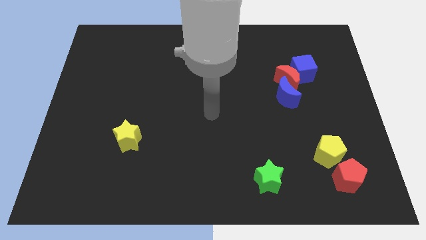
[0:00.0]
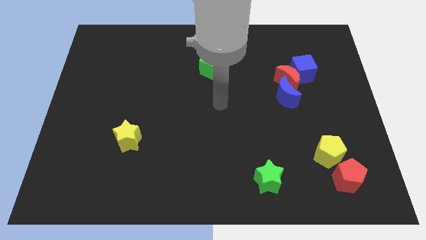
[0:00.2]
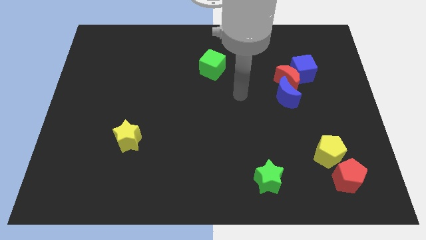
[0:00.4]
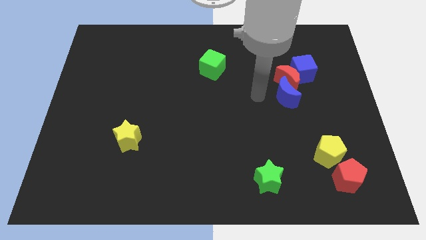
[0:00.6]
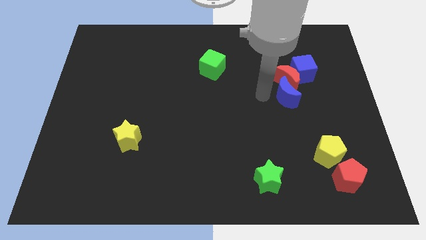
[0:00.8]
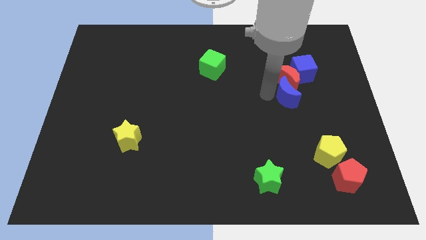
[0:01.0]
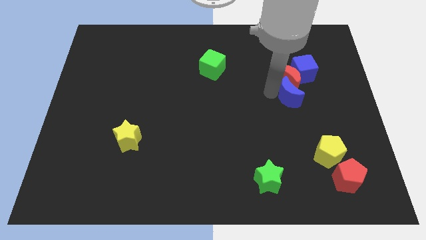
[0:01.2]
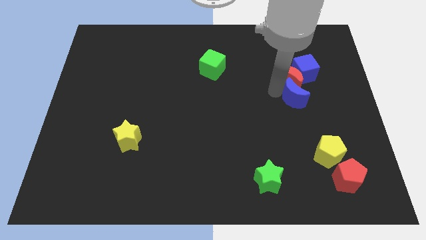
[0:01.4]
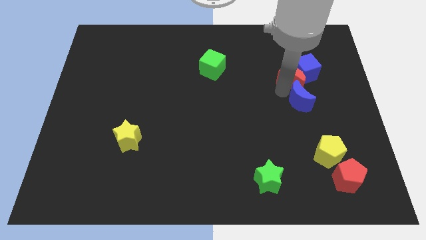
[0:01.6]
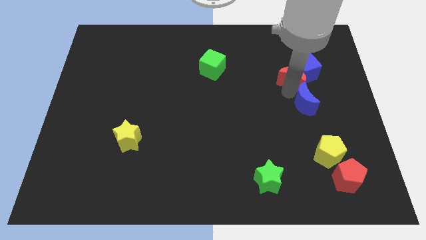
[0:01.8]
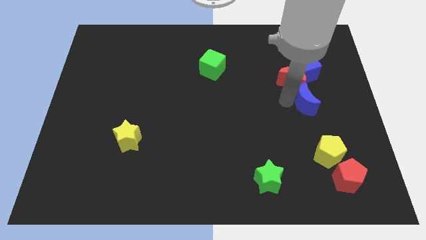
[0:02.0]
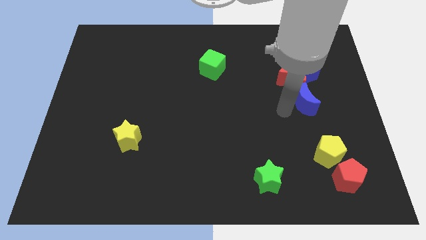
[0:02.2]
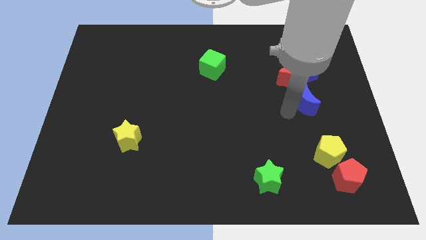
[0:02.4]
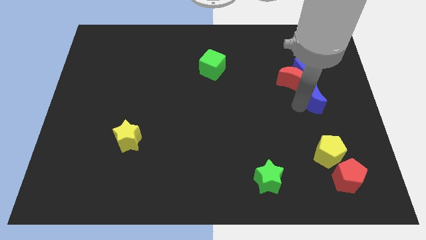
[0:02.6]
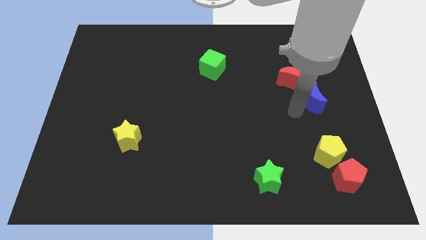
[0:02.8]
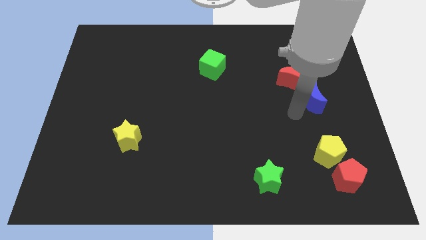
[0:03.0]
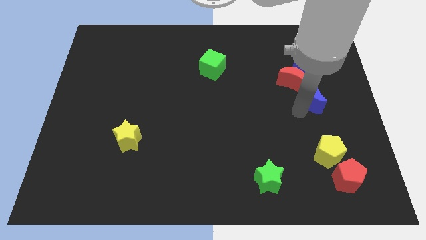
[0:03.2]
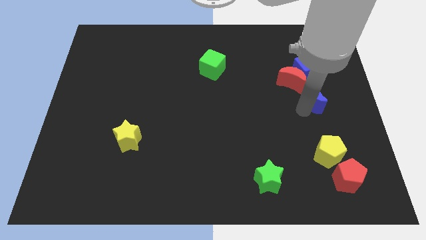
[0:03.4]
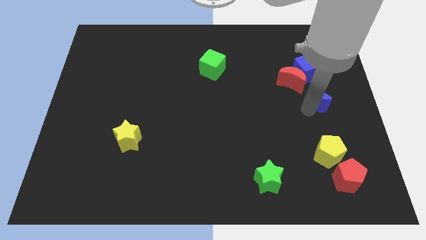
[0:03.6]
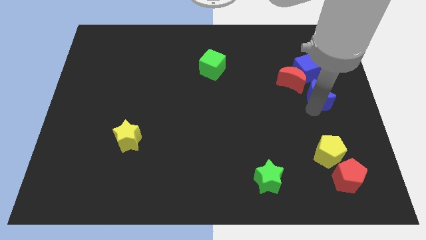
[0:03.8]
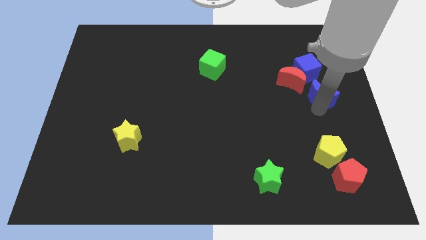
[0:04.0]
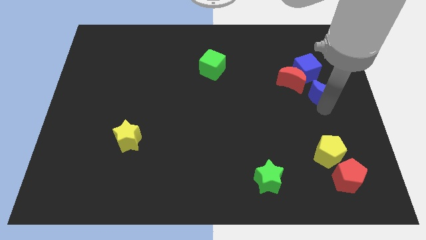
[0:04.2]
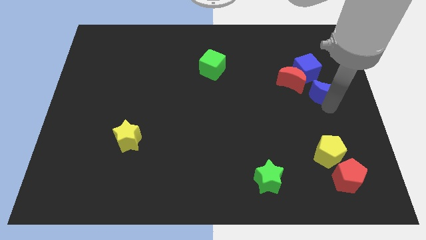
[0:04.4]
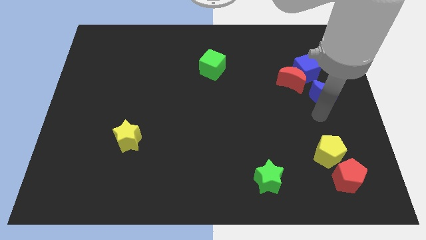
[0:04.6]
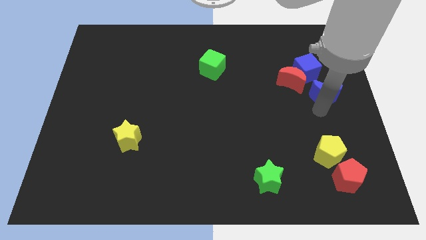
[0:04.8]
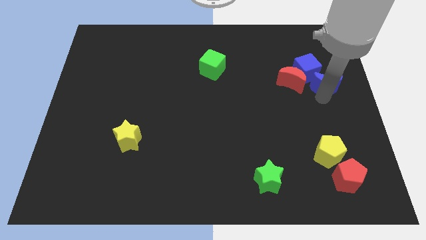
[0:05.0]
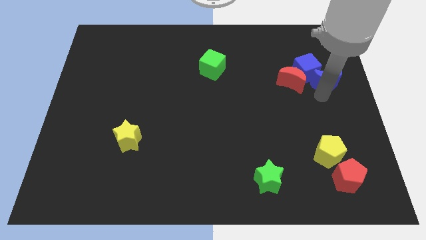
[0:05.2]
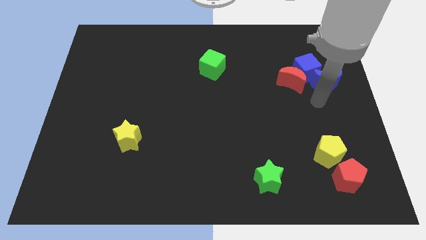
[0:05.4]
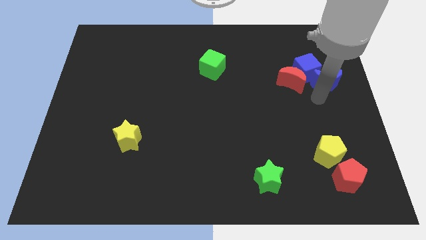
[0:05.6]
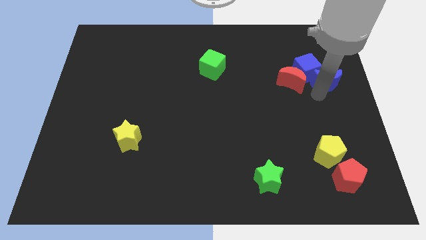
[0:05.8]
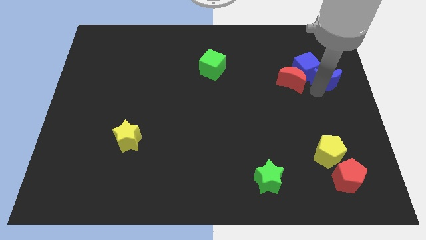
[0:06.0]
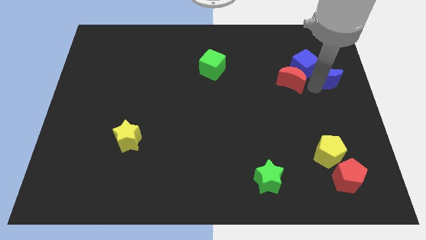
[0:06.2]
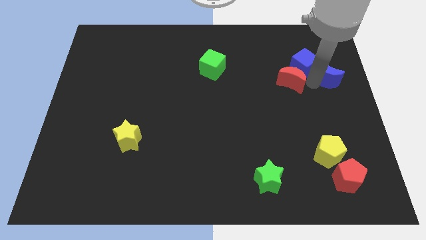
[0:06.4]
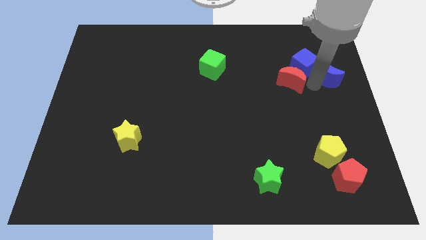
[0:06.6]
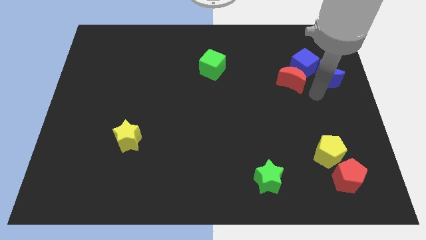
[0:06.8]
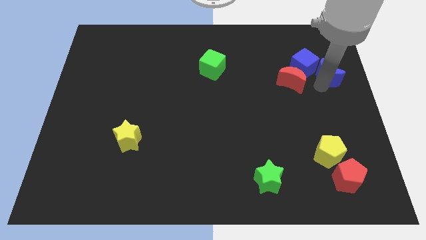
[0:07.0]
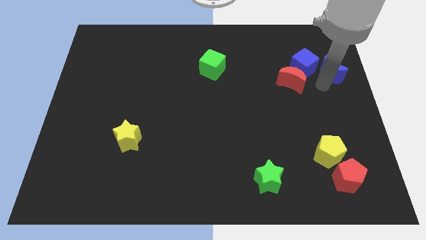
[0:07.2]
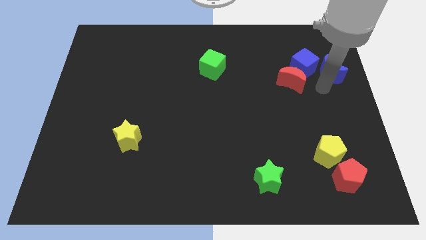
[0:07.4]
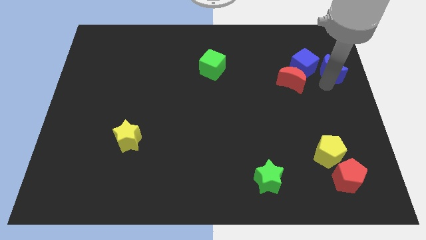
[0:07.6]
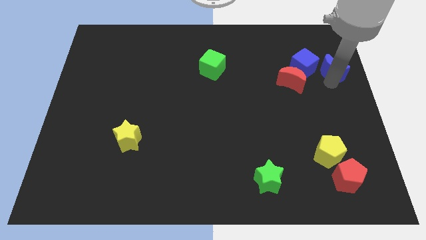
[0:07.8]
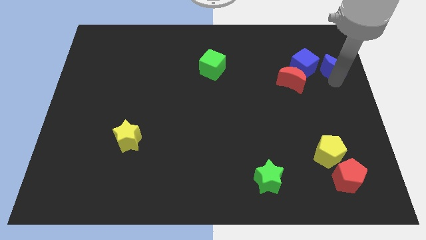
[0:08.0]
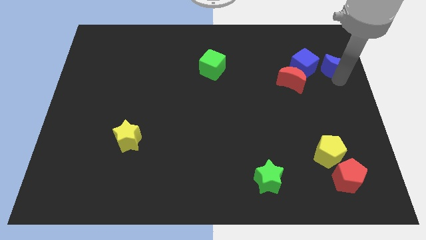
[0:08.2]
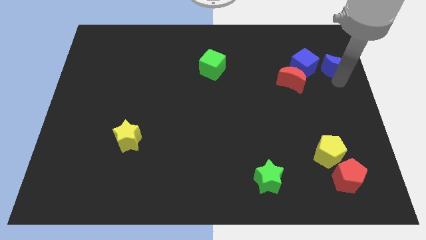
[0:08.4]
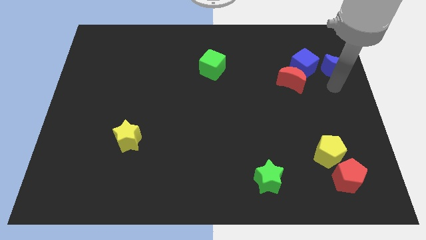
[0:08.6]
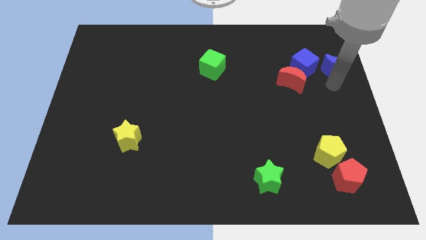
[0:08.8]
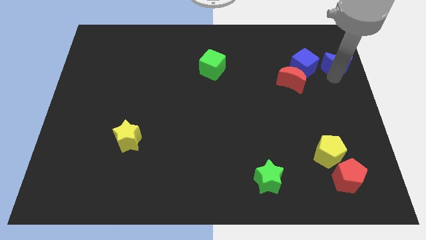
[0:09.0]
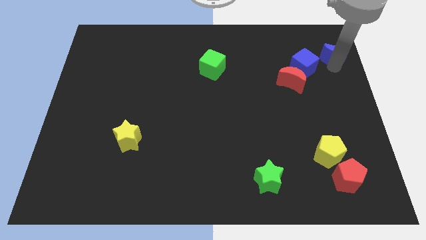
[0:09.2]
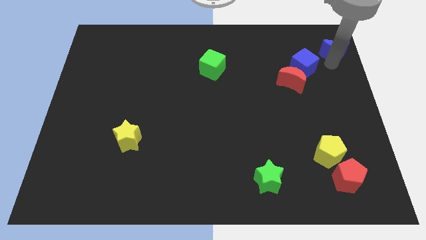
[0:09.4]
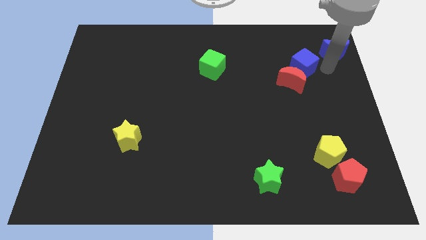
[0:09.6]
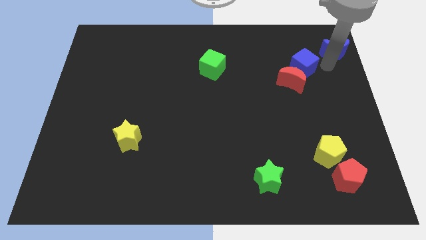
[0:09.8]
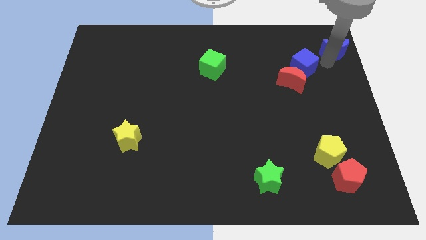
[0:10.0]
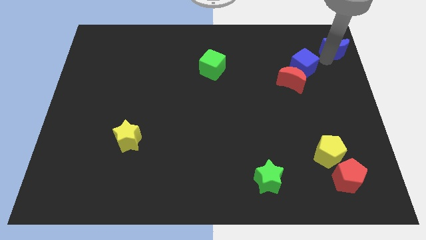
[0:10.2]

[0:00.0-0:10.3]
move the blue moon to the top right of the board

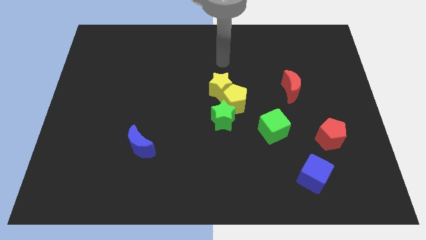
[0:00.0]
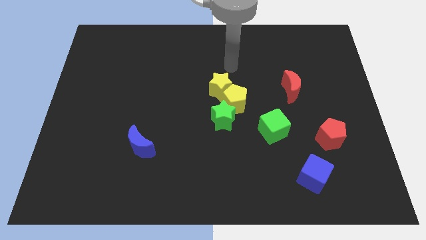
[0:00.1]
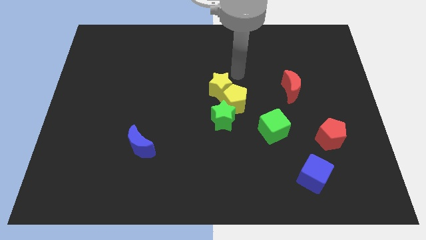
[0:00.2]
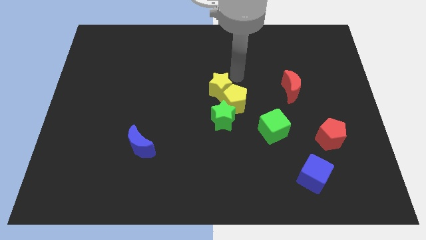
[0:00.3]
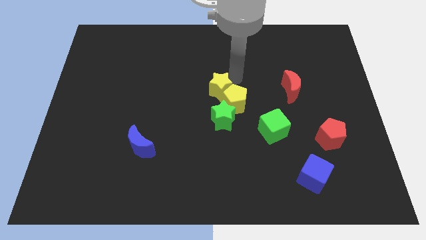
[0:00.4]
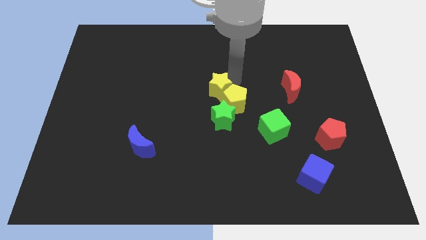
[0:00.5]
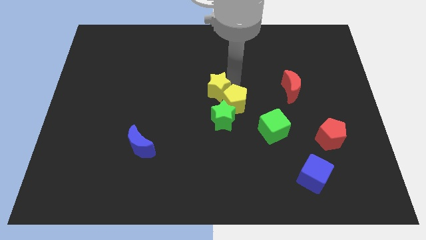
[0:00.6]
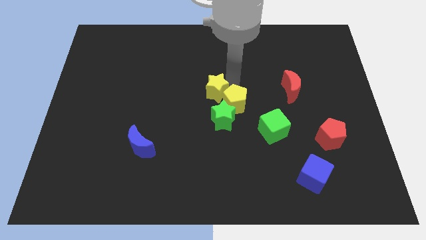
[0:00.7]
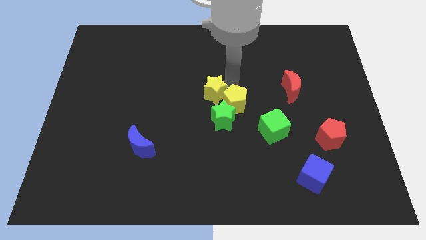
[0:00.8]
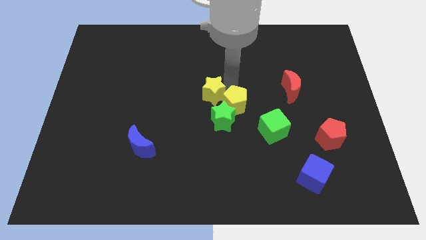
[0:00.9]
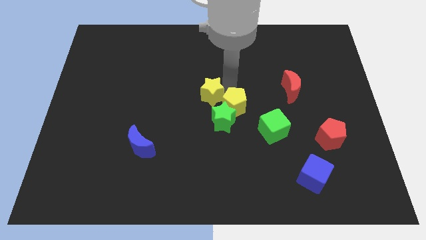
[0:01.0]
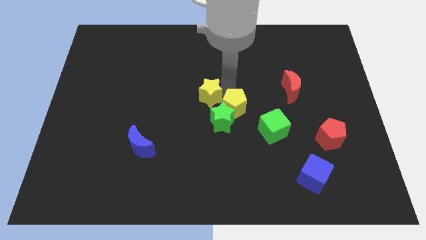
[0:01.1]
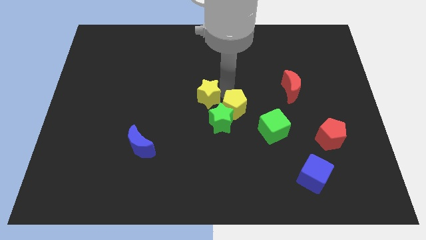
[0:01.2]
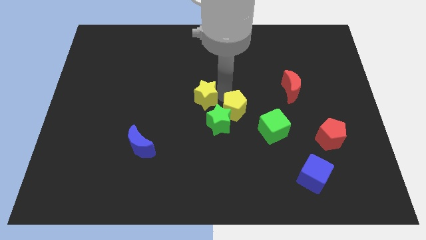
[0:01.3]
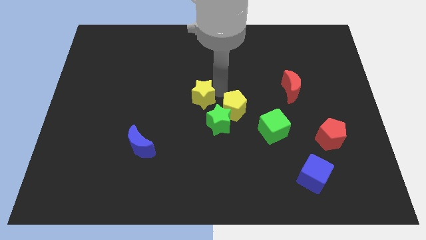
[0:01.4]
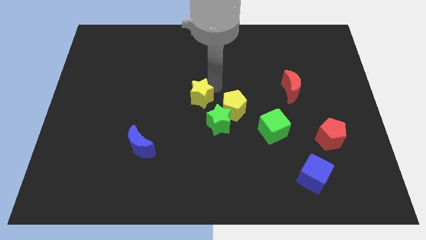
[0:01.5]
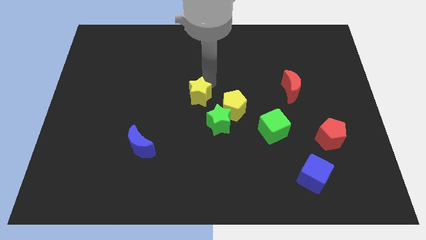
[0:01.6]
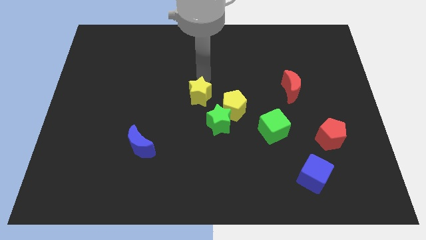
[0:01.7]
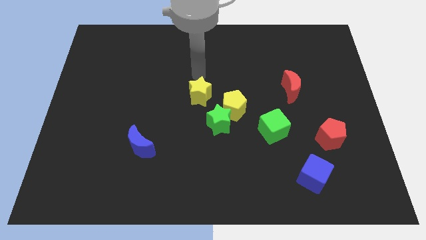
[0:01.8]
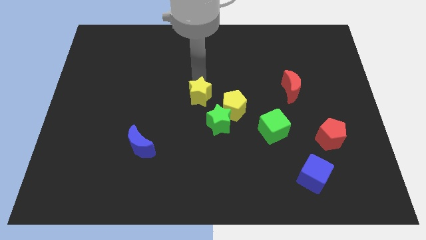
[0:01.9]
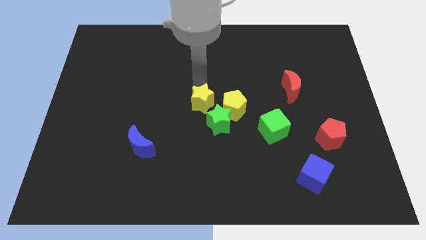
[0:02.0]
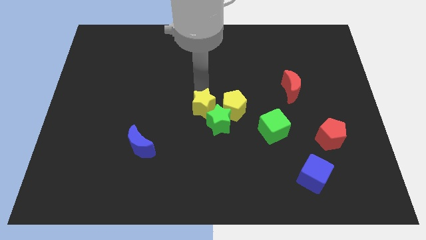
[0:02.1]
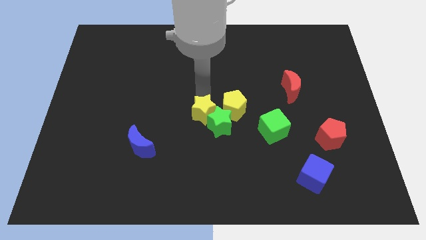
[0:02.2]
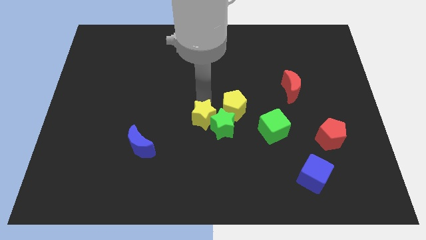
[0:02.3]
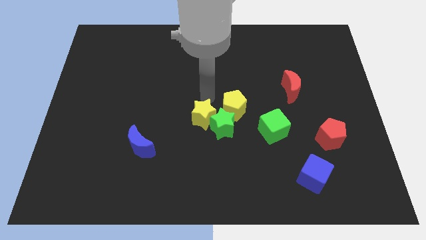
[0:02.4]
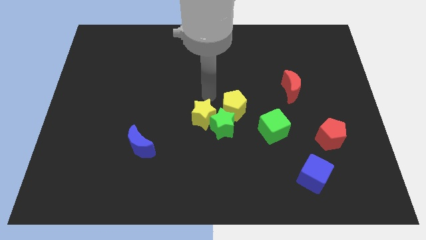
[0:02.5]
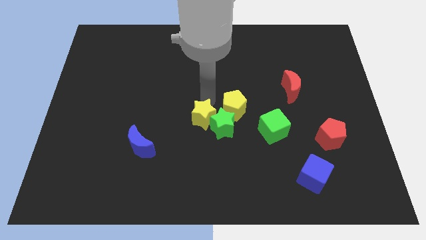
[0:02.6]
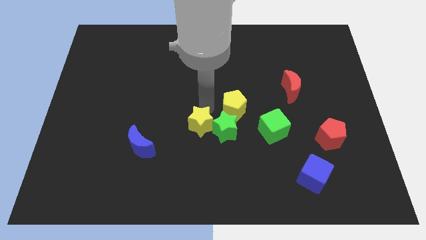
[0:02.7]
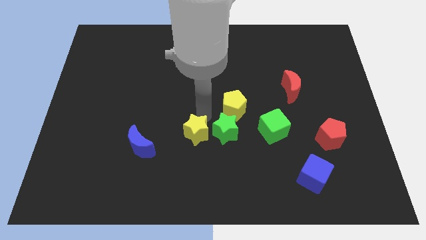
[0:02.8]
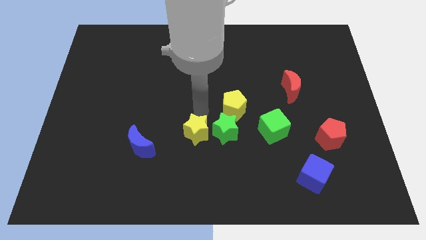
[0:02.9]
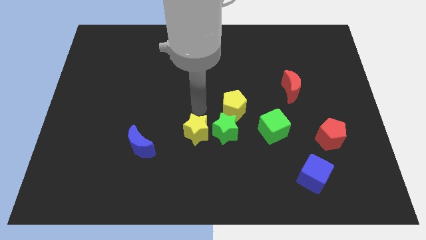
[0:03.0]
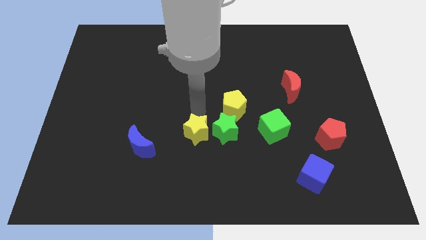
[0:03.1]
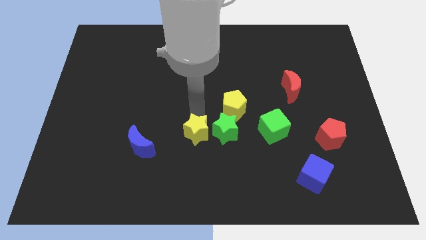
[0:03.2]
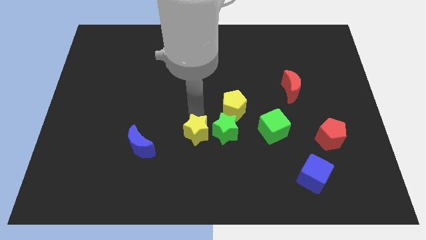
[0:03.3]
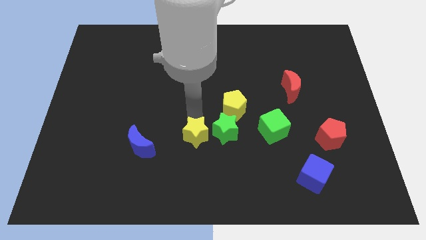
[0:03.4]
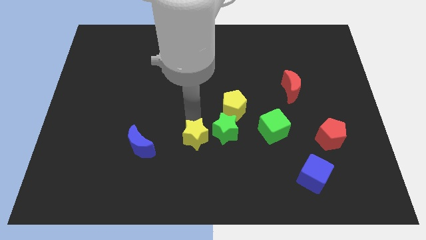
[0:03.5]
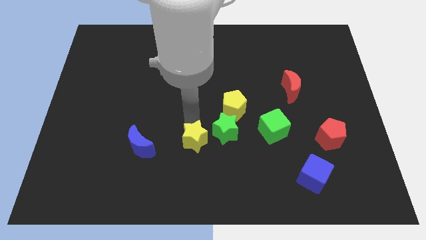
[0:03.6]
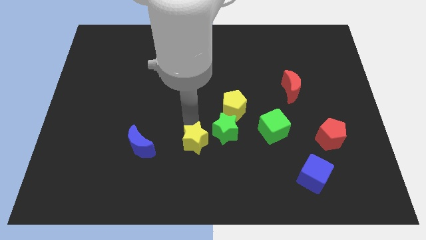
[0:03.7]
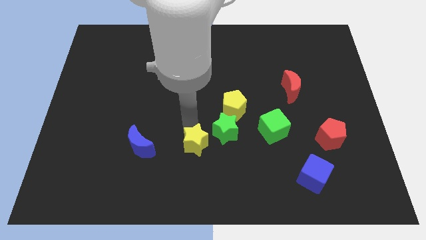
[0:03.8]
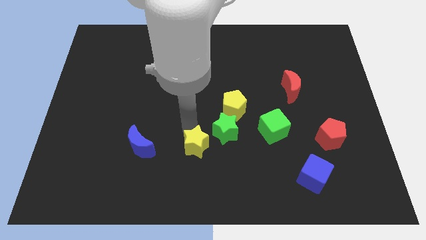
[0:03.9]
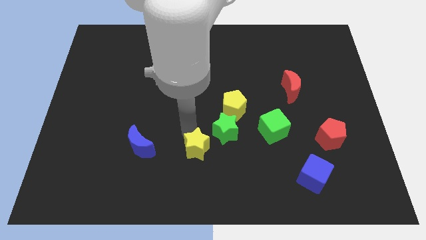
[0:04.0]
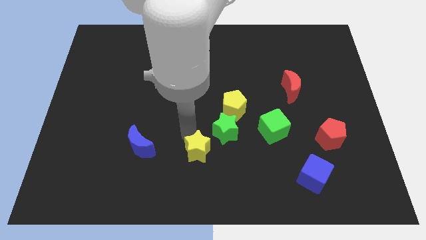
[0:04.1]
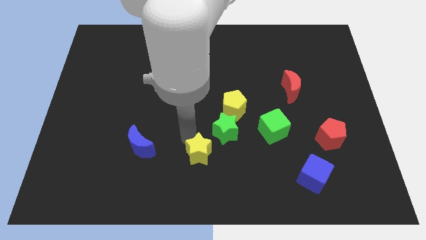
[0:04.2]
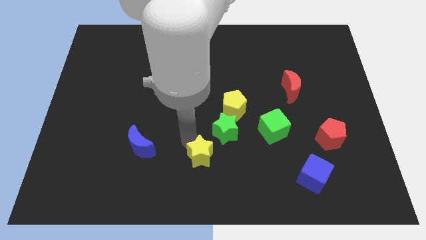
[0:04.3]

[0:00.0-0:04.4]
slide the yellow star to the bottom side
